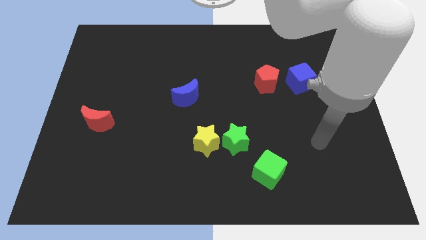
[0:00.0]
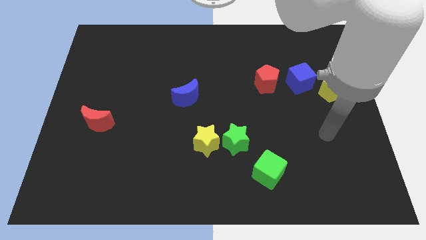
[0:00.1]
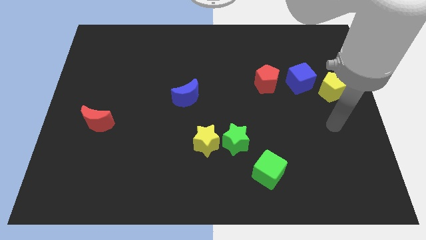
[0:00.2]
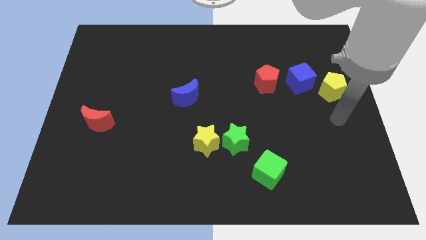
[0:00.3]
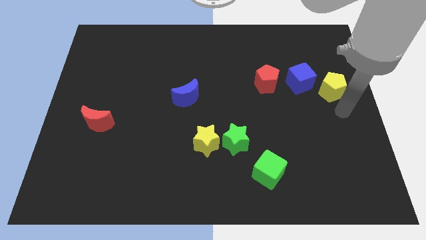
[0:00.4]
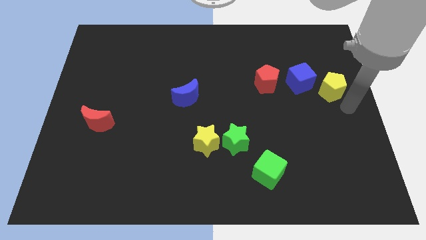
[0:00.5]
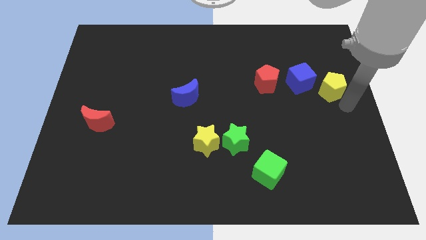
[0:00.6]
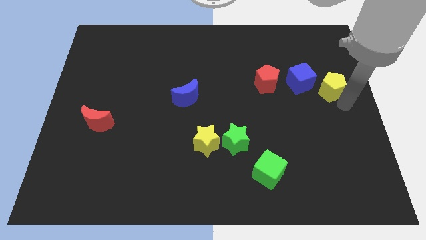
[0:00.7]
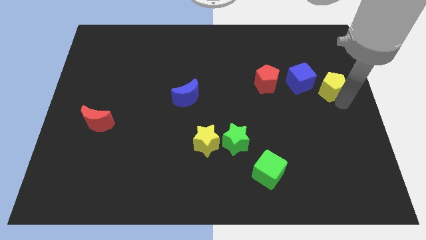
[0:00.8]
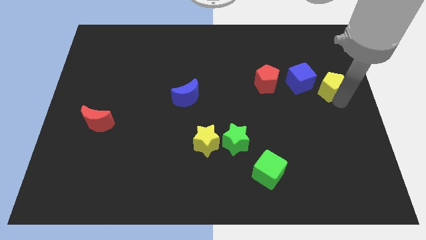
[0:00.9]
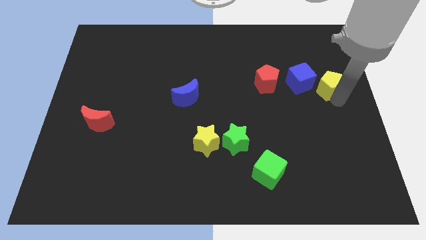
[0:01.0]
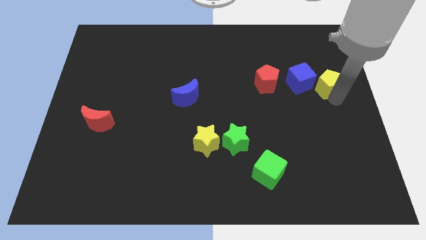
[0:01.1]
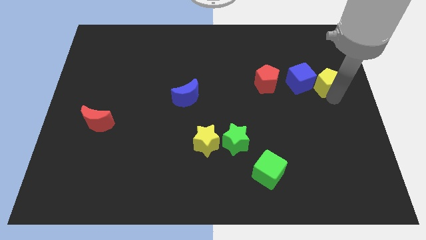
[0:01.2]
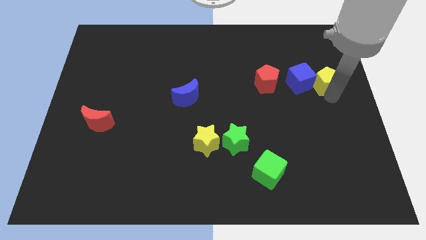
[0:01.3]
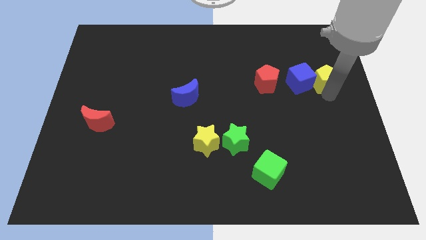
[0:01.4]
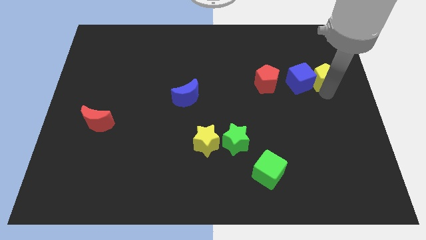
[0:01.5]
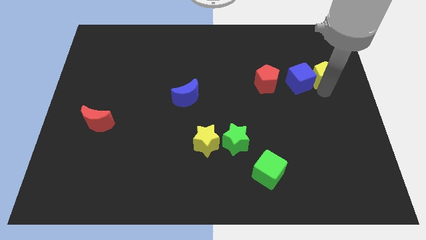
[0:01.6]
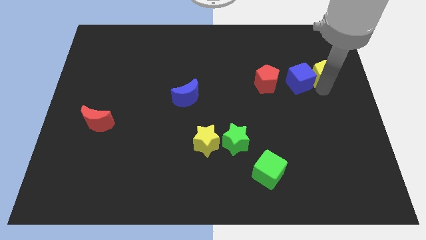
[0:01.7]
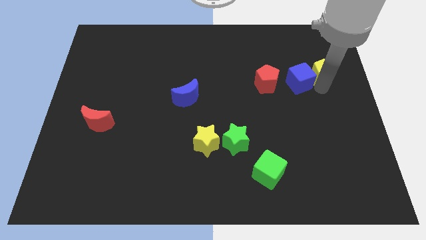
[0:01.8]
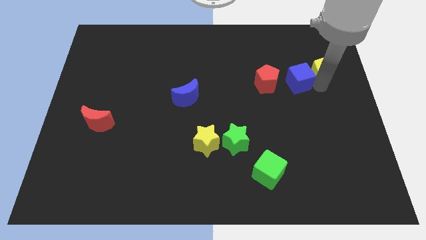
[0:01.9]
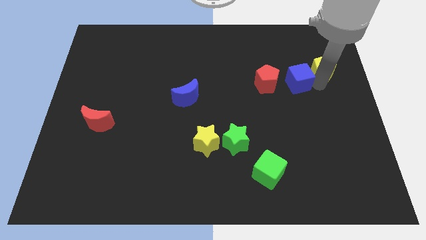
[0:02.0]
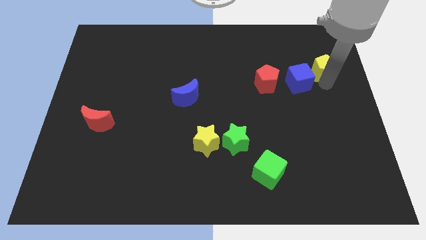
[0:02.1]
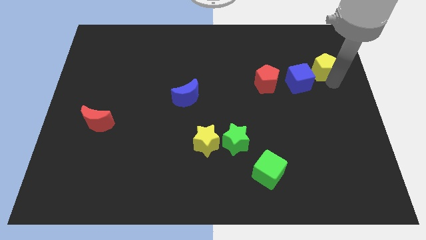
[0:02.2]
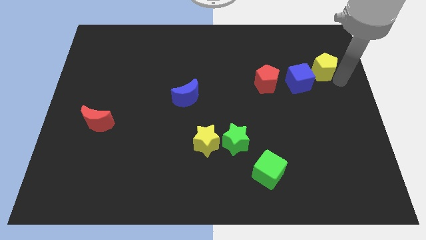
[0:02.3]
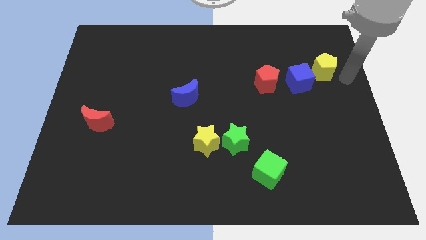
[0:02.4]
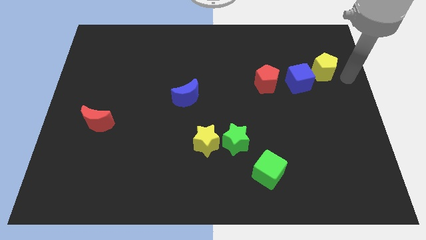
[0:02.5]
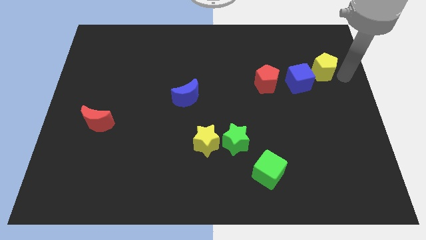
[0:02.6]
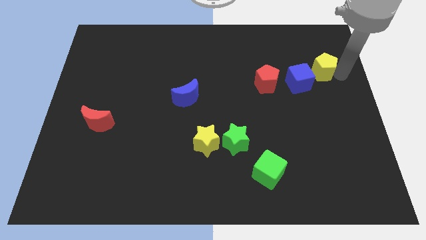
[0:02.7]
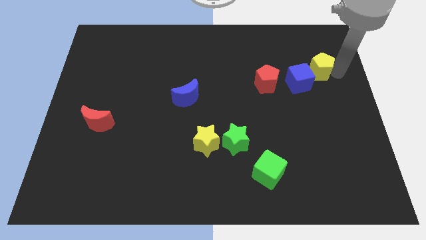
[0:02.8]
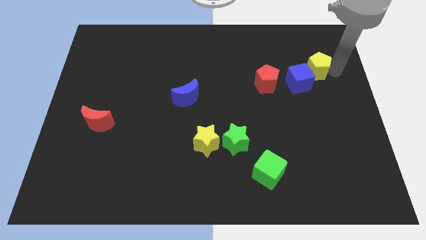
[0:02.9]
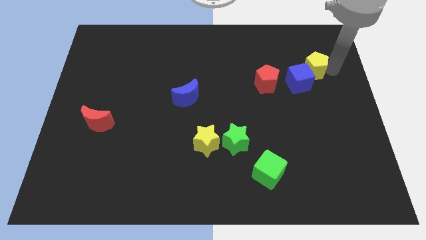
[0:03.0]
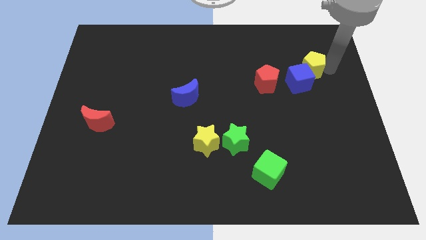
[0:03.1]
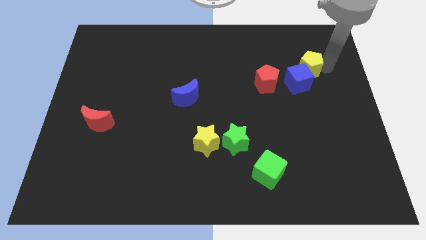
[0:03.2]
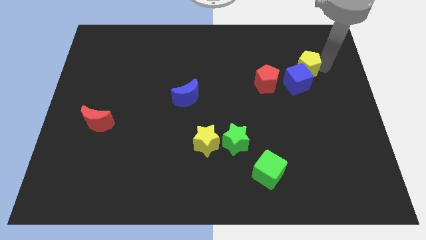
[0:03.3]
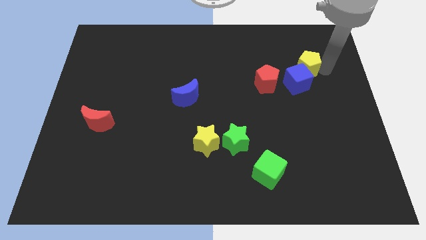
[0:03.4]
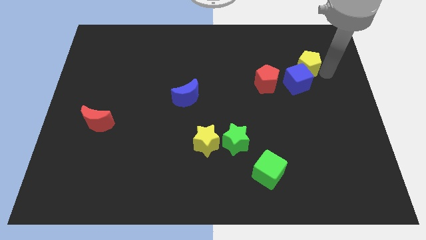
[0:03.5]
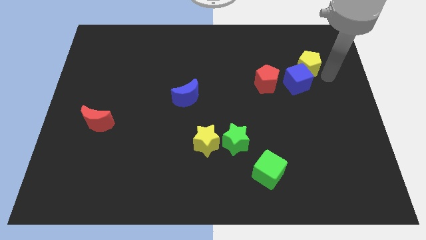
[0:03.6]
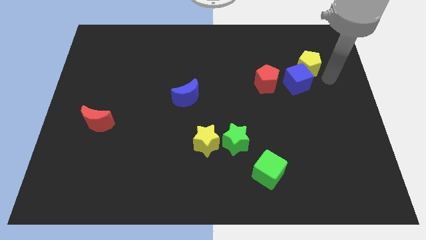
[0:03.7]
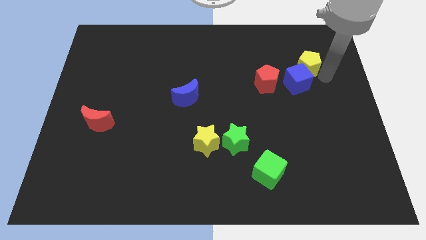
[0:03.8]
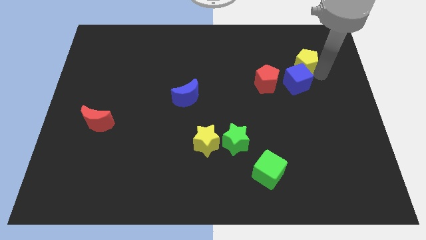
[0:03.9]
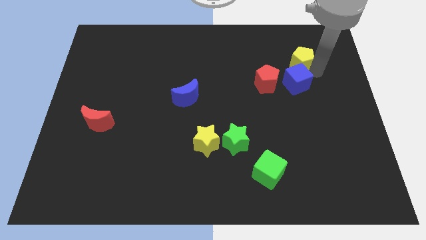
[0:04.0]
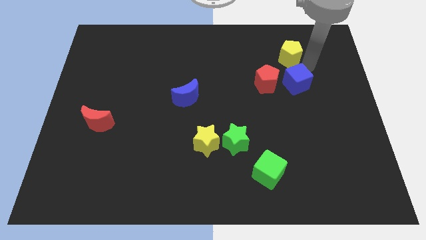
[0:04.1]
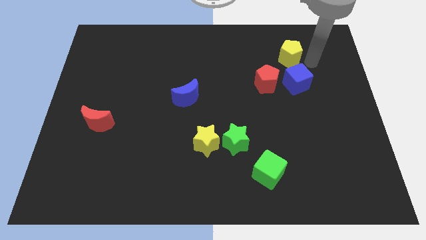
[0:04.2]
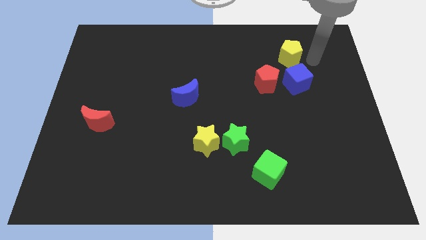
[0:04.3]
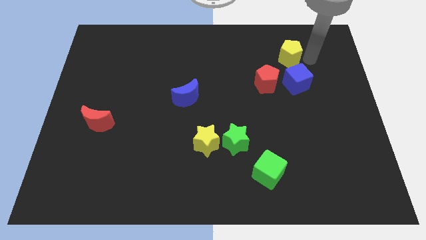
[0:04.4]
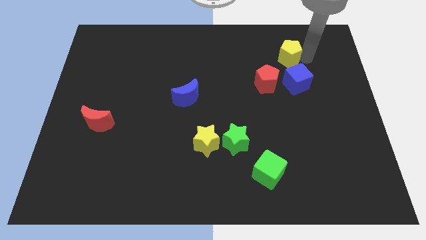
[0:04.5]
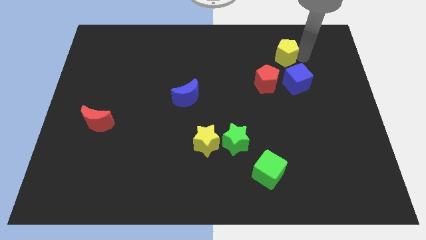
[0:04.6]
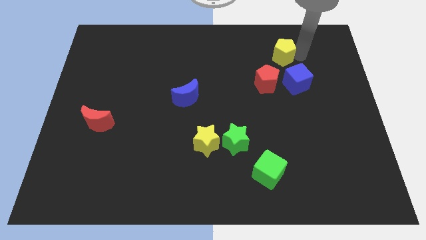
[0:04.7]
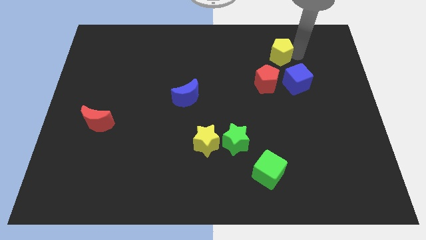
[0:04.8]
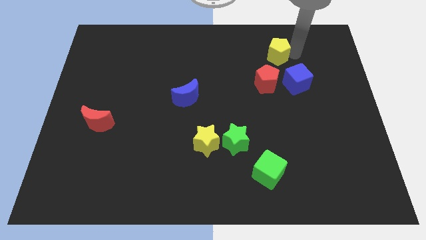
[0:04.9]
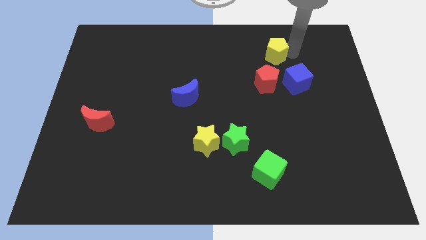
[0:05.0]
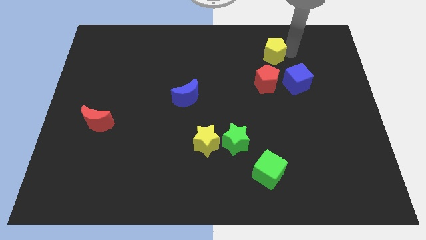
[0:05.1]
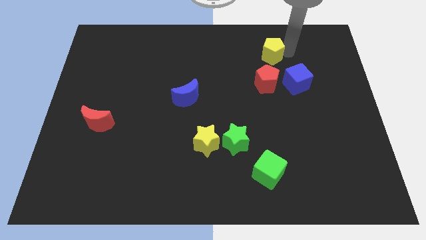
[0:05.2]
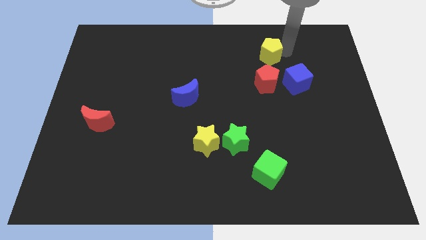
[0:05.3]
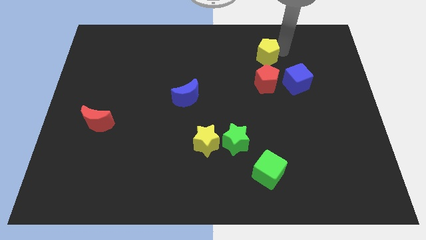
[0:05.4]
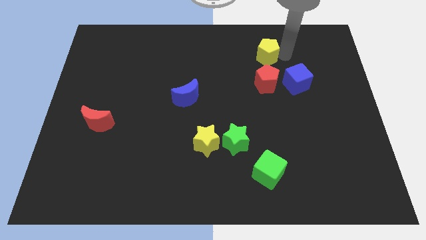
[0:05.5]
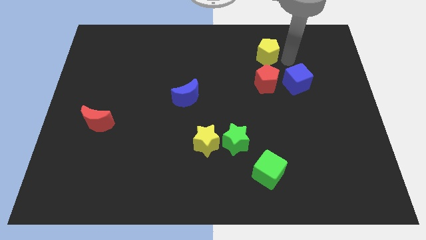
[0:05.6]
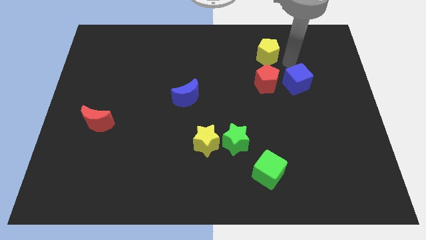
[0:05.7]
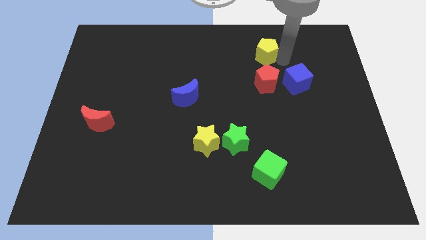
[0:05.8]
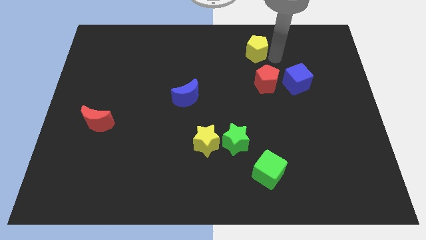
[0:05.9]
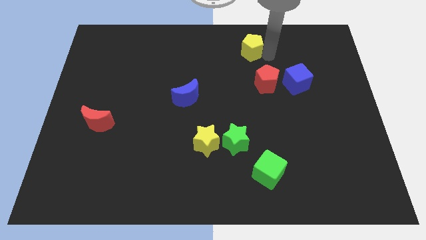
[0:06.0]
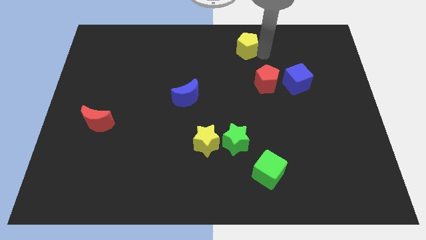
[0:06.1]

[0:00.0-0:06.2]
put the yellow pentagon to the top

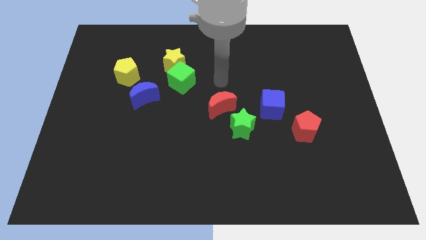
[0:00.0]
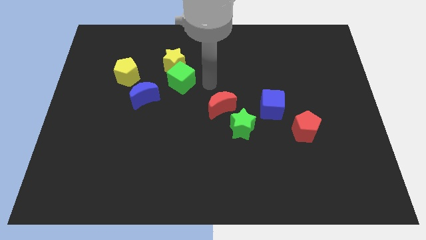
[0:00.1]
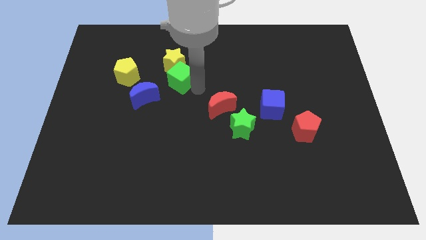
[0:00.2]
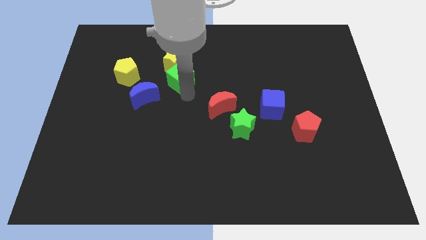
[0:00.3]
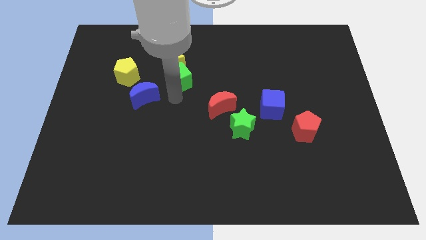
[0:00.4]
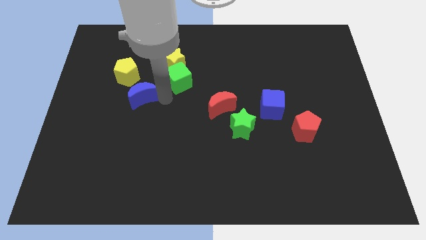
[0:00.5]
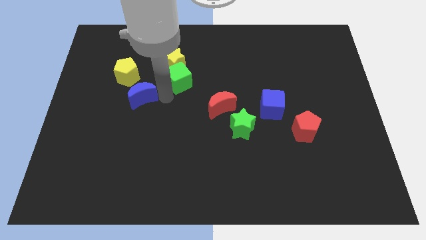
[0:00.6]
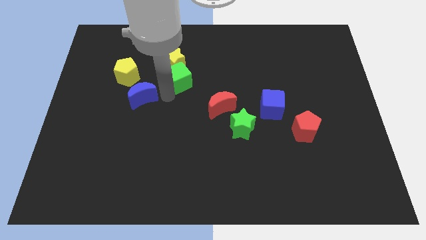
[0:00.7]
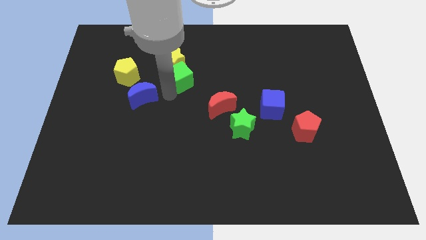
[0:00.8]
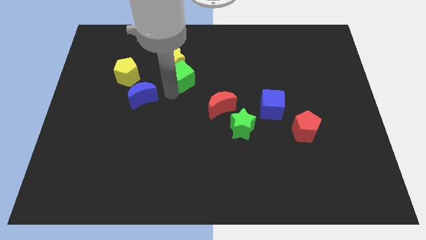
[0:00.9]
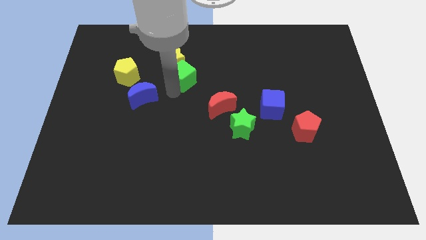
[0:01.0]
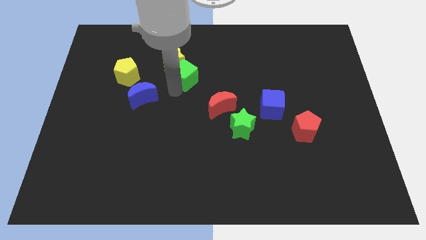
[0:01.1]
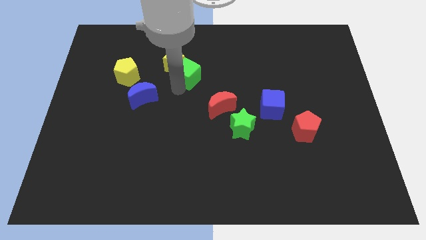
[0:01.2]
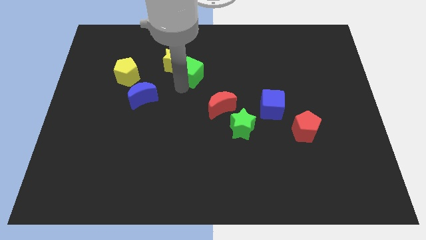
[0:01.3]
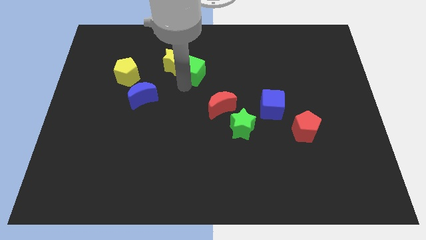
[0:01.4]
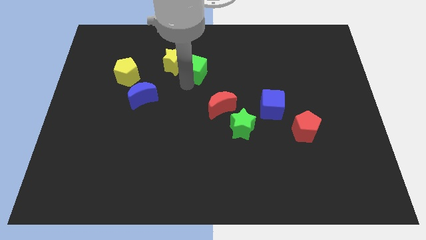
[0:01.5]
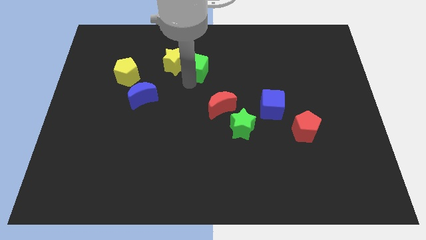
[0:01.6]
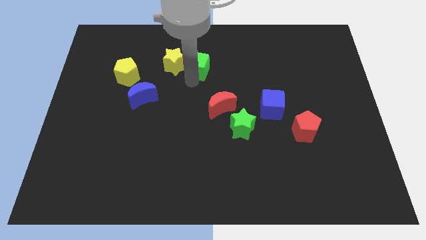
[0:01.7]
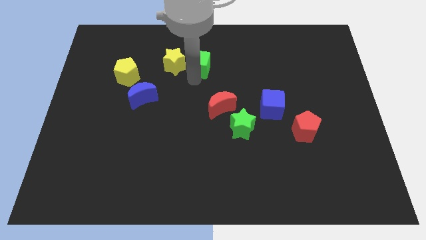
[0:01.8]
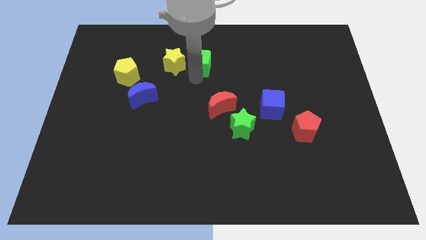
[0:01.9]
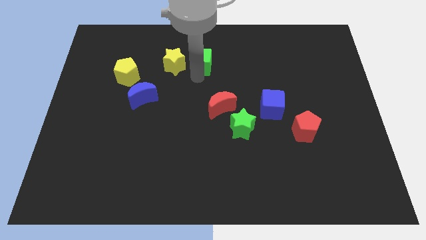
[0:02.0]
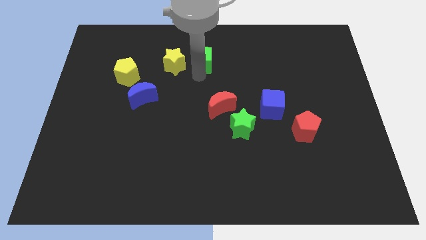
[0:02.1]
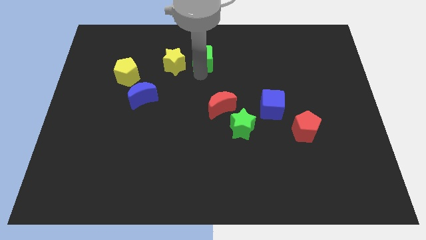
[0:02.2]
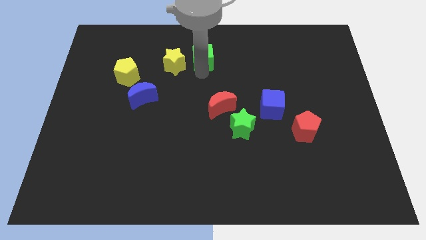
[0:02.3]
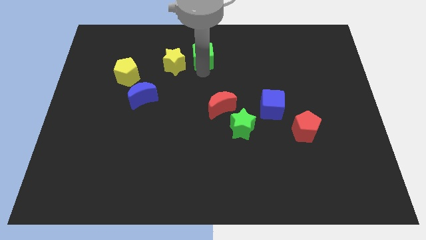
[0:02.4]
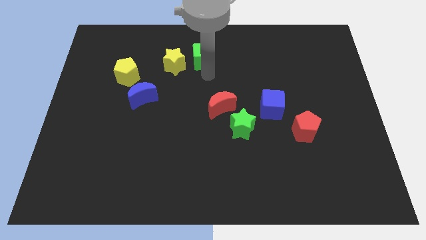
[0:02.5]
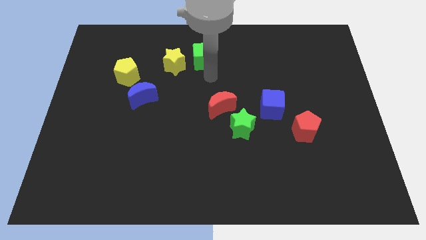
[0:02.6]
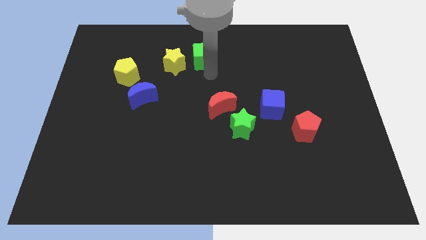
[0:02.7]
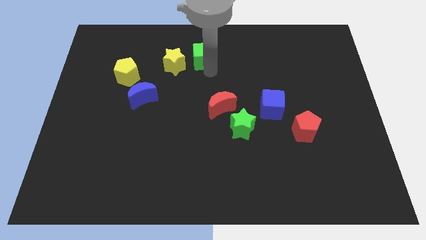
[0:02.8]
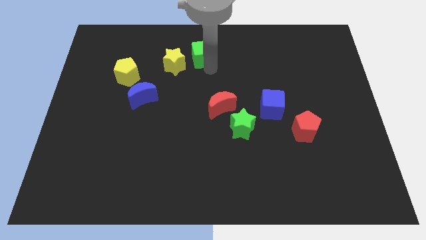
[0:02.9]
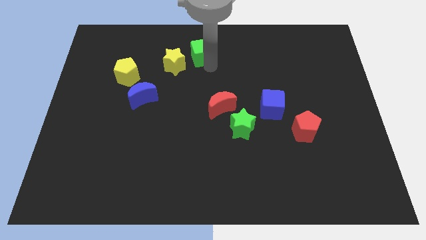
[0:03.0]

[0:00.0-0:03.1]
put the green cube to the top side
